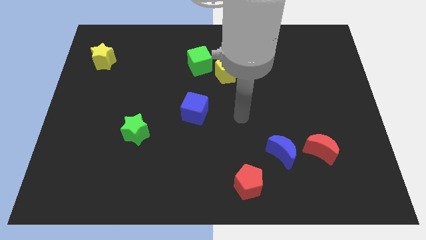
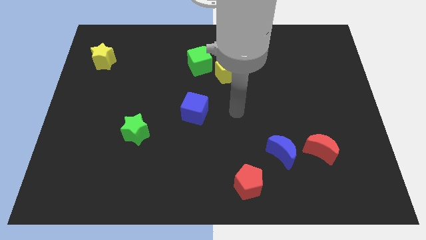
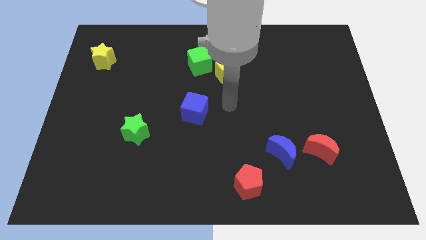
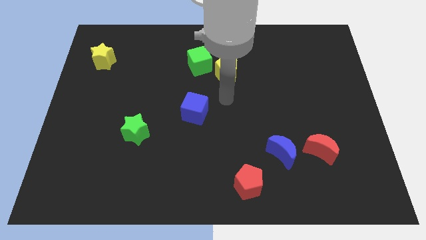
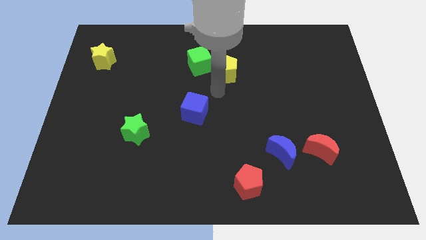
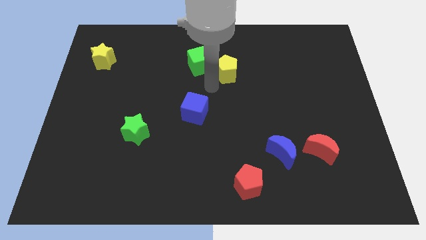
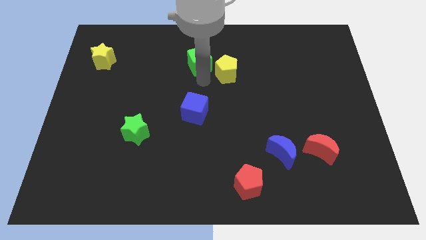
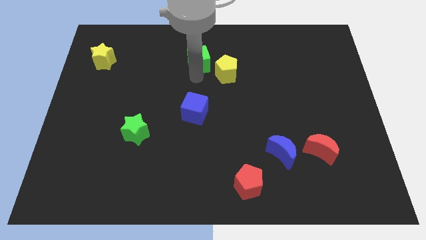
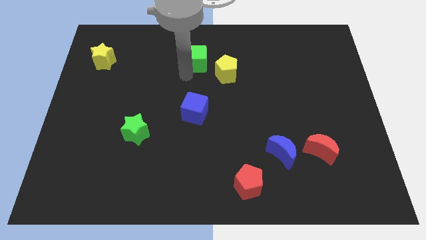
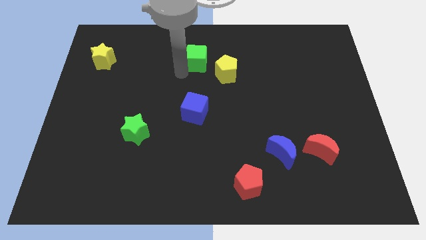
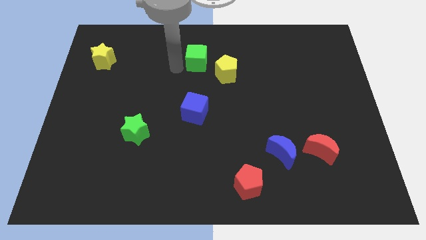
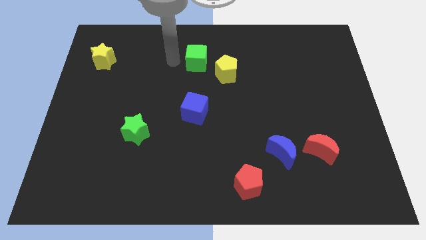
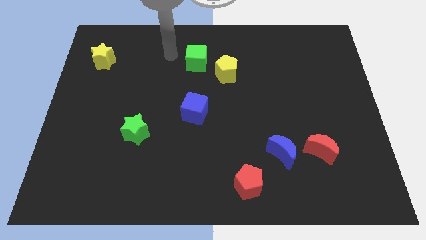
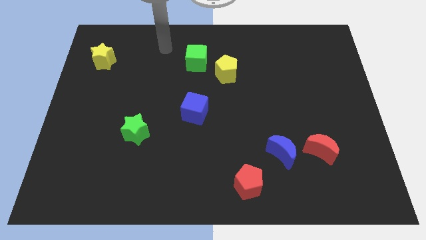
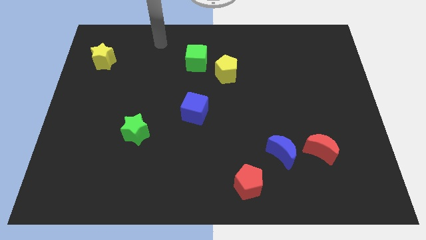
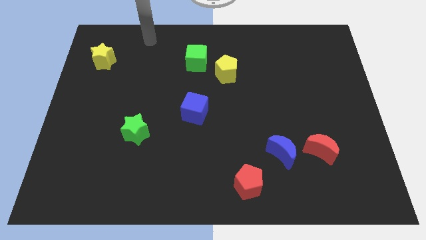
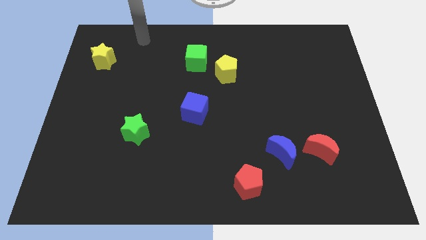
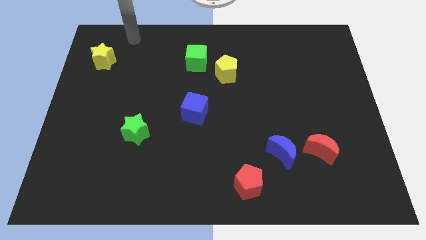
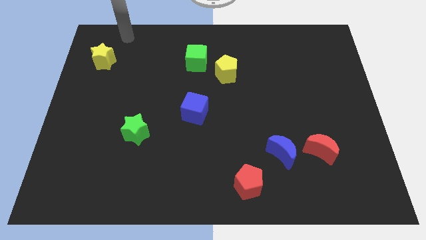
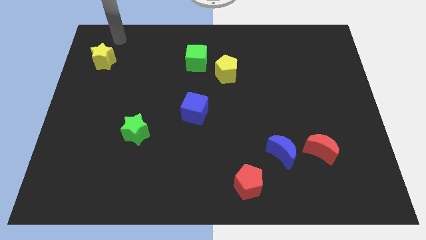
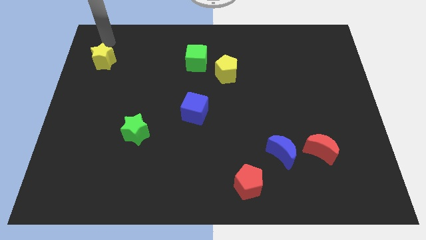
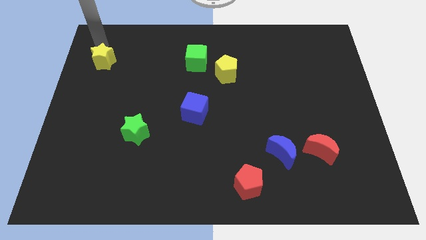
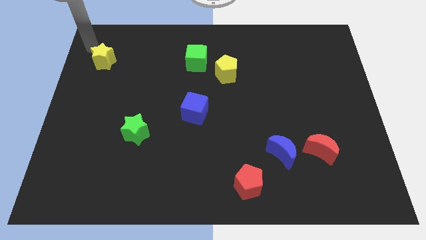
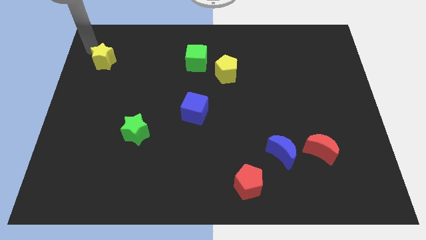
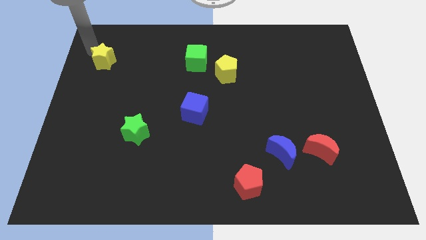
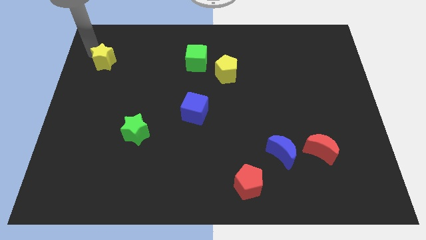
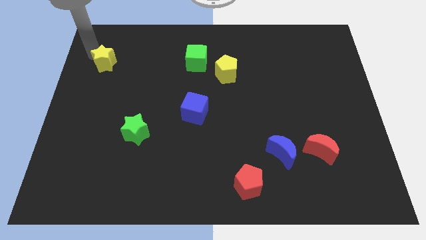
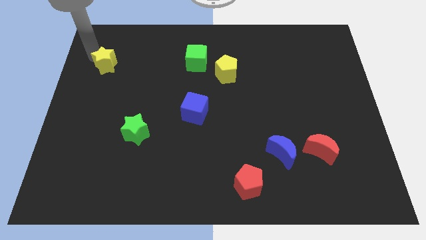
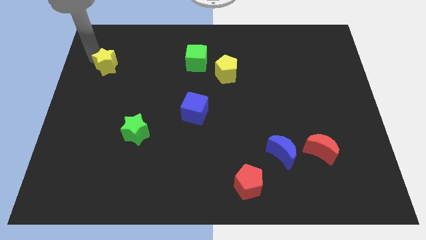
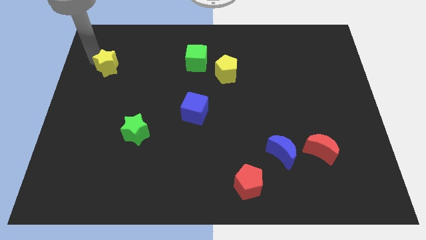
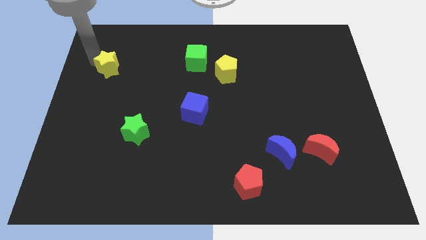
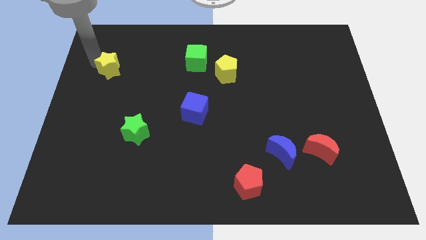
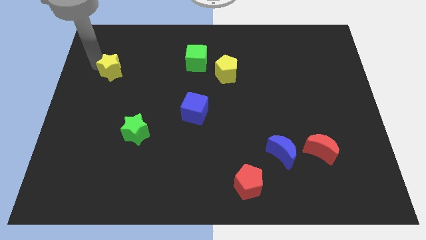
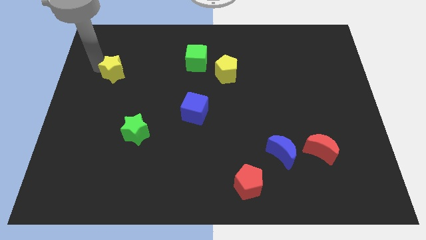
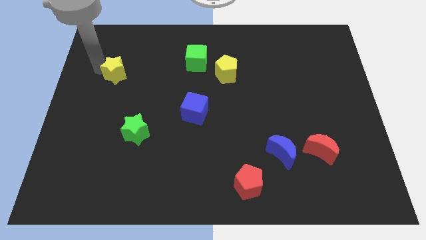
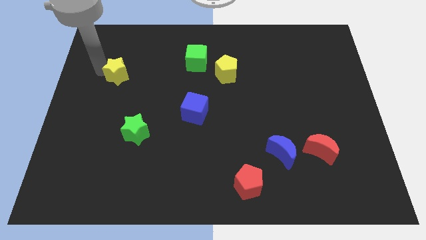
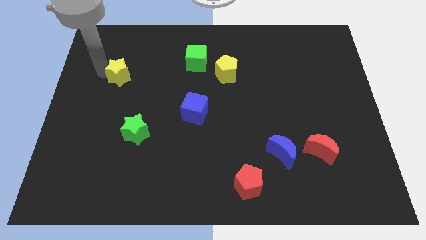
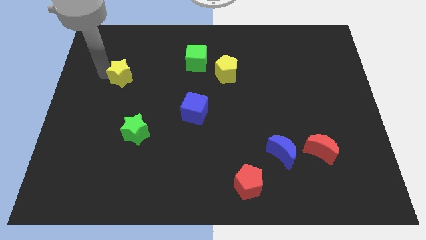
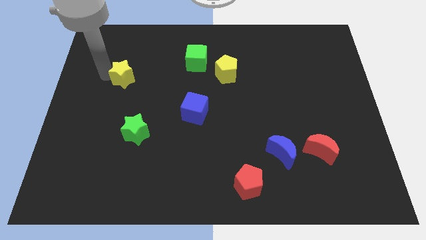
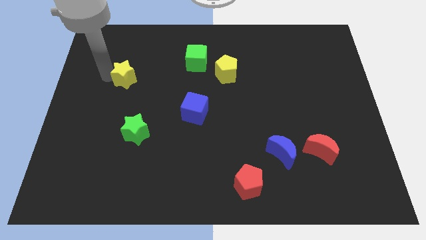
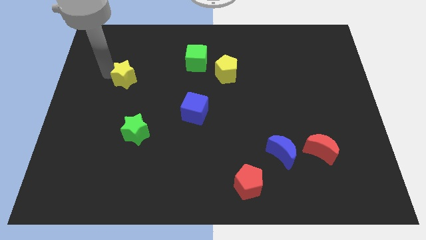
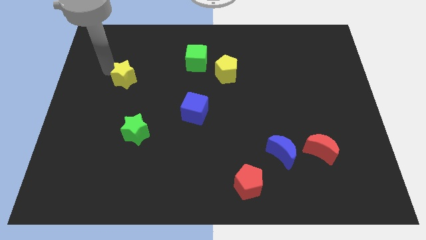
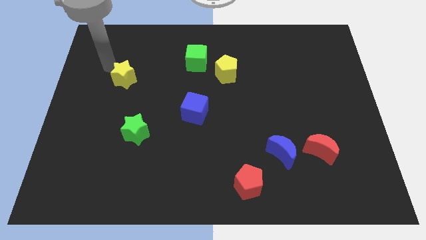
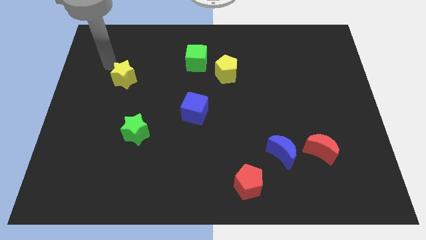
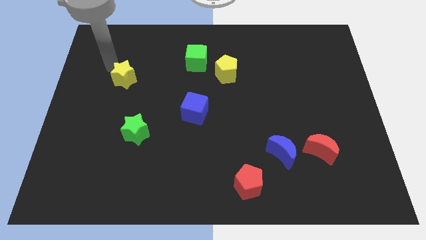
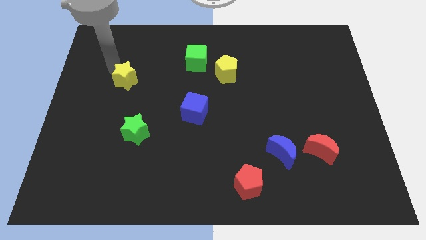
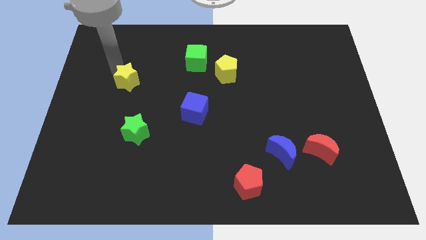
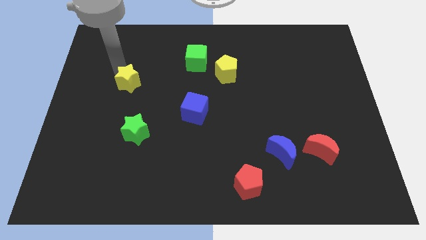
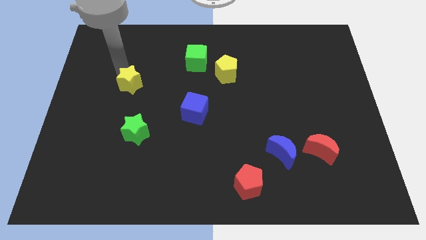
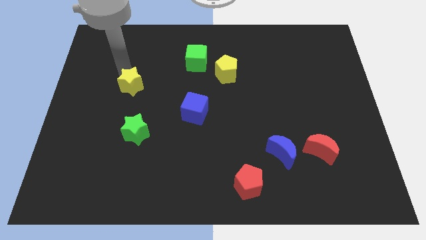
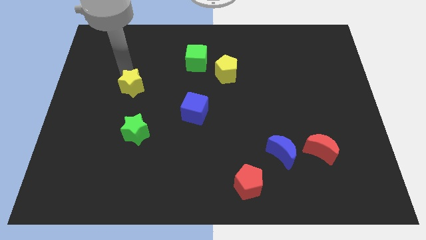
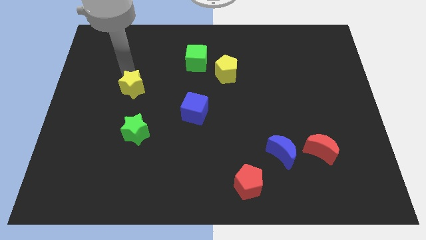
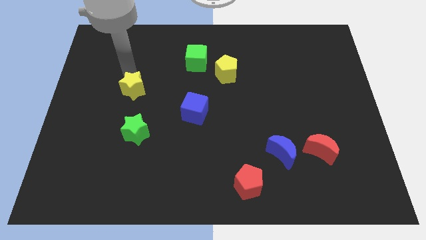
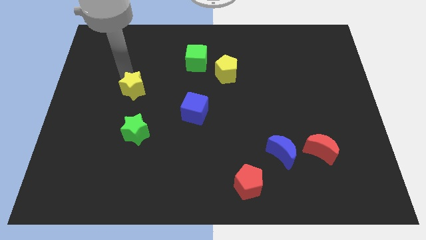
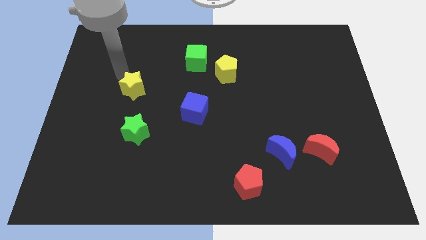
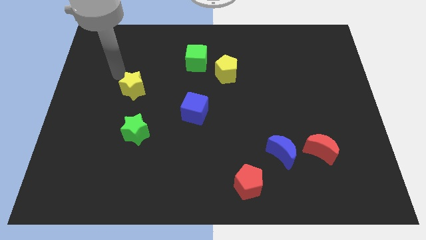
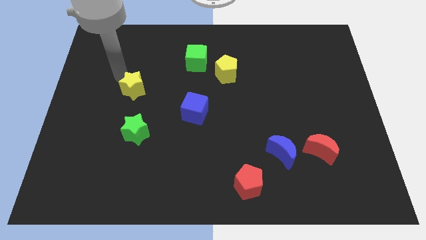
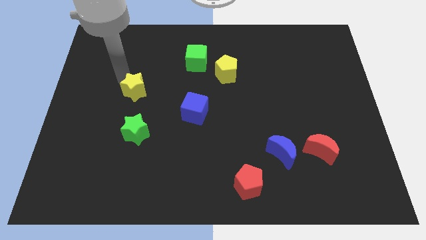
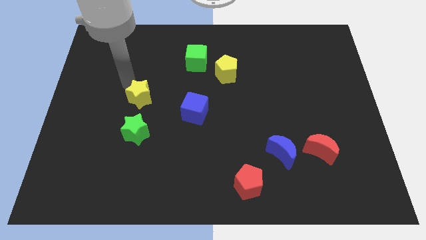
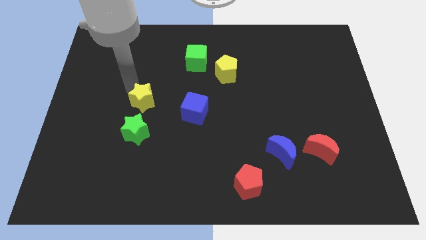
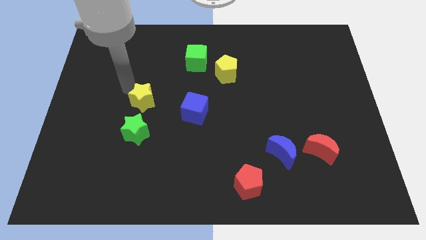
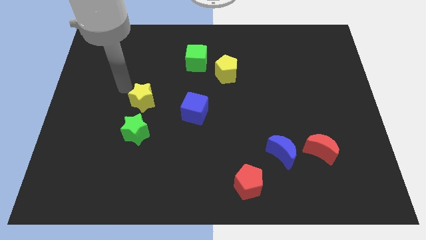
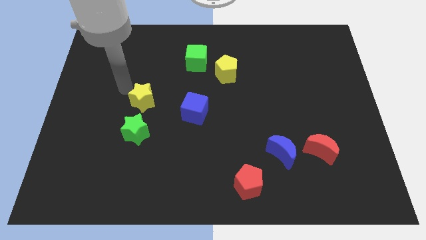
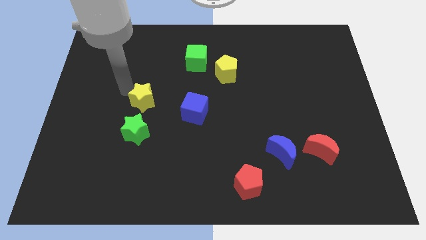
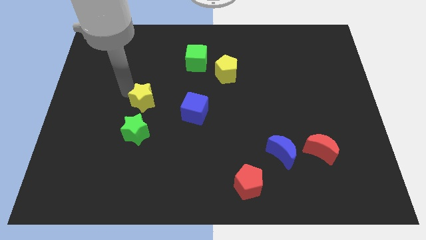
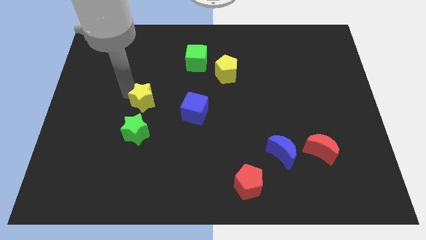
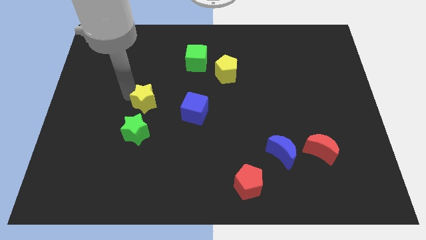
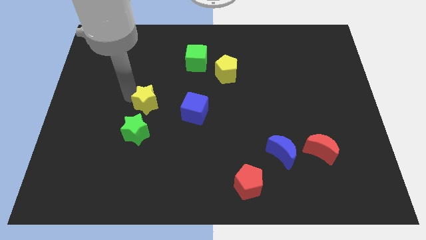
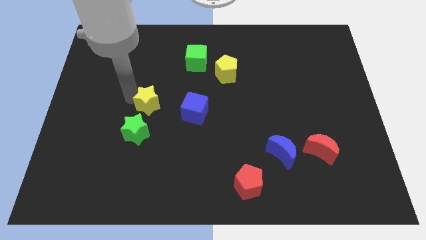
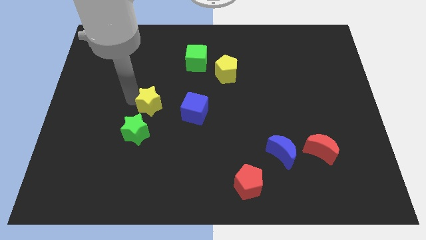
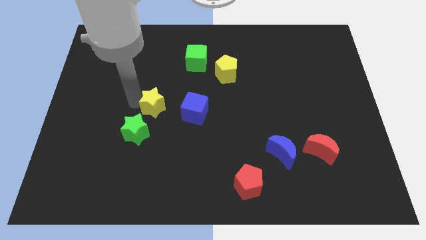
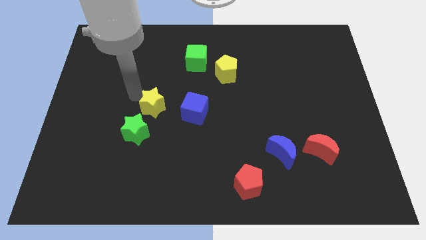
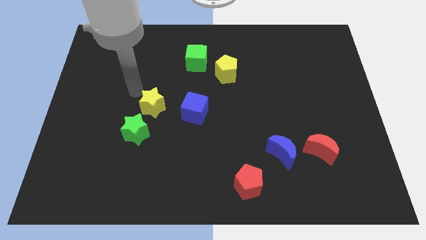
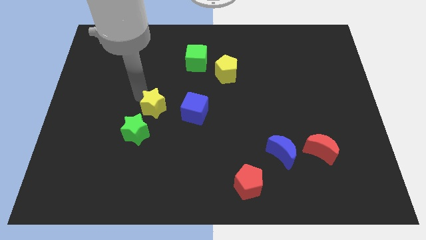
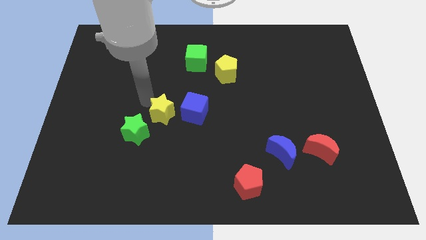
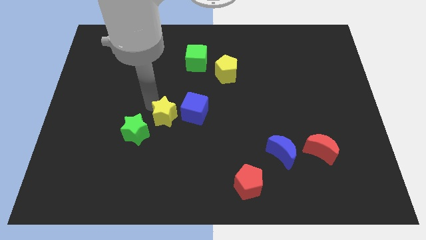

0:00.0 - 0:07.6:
slide the yellow star just right of the green star
